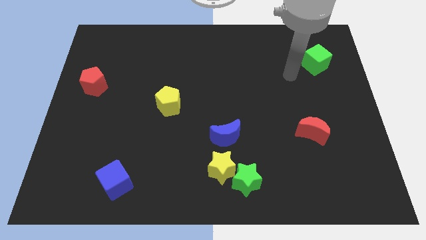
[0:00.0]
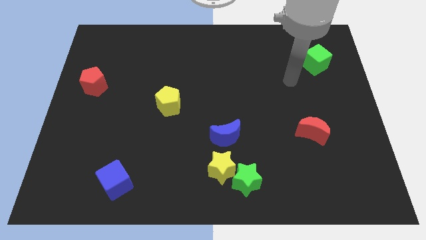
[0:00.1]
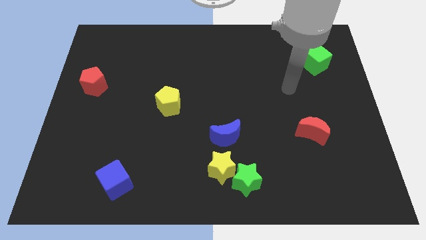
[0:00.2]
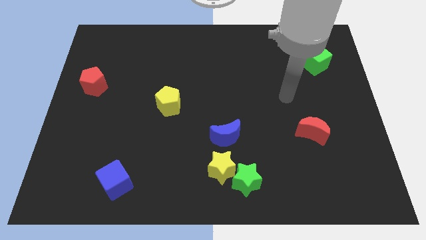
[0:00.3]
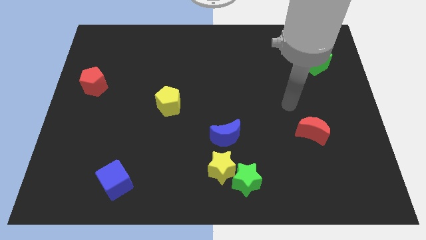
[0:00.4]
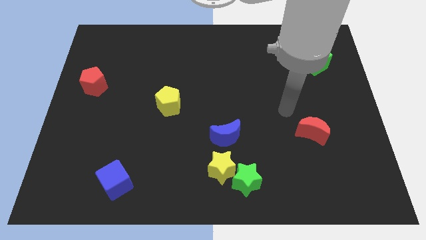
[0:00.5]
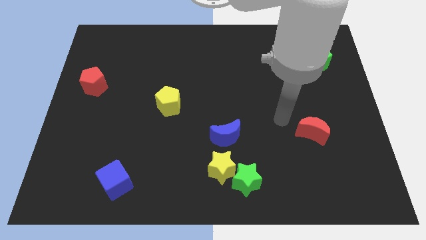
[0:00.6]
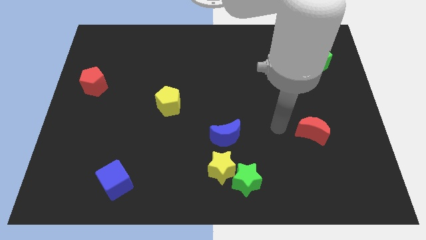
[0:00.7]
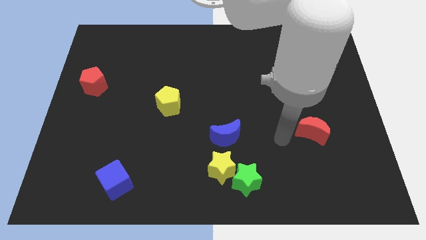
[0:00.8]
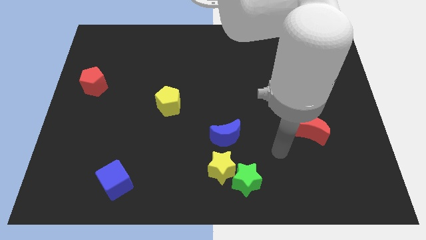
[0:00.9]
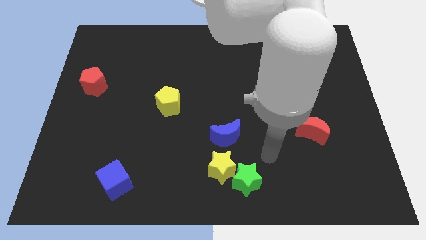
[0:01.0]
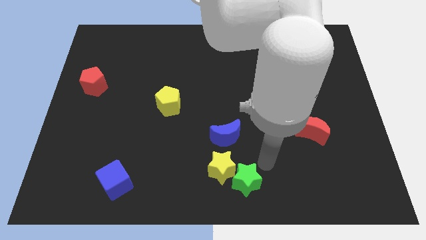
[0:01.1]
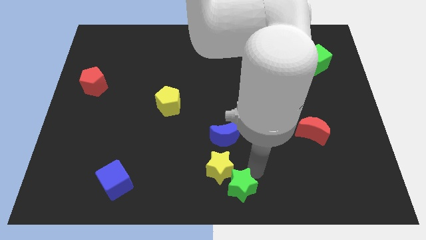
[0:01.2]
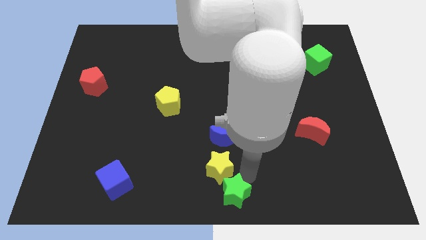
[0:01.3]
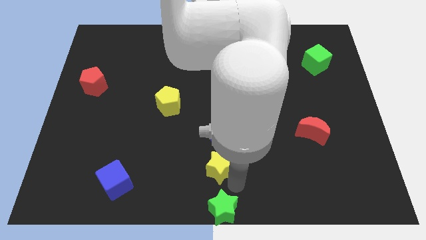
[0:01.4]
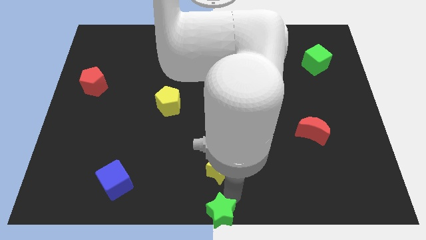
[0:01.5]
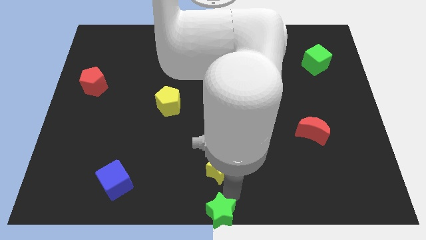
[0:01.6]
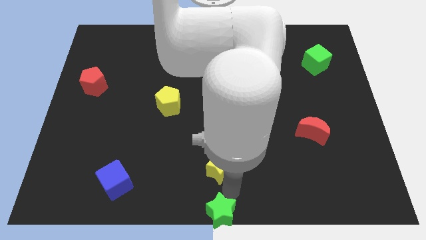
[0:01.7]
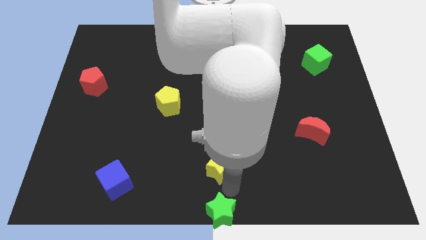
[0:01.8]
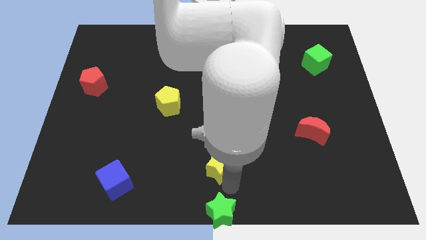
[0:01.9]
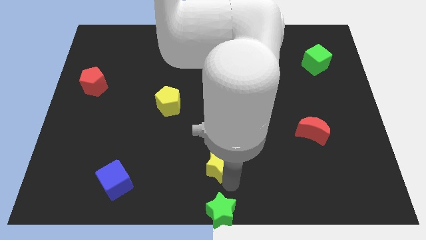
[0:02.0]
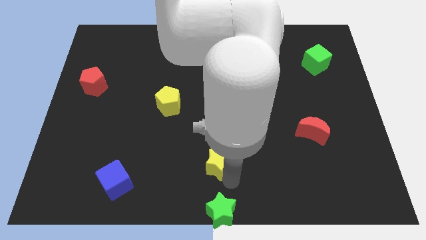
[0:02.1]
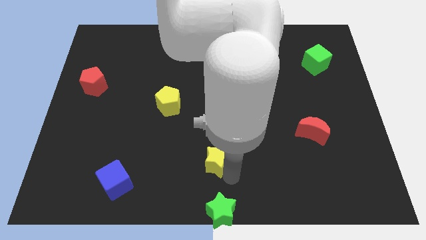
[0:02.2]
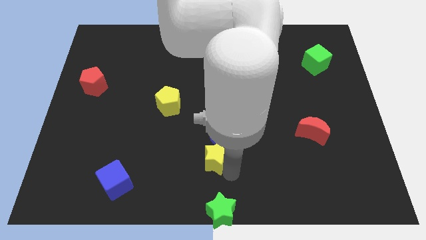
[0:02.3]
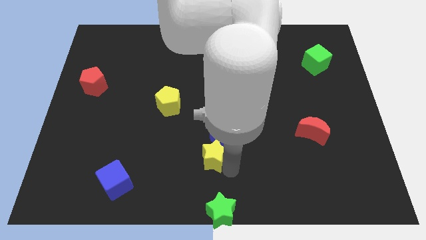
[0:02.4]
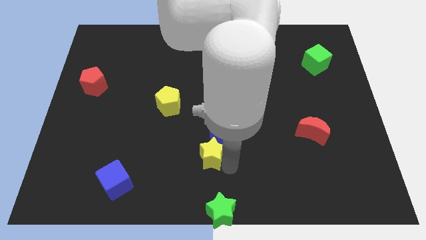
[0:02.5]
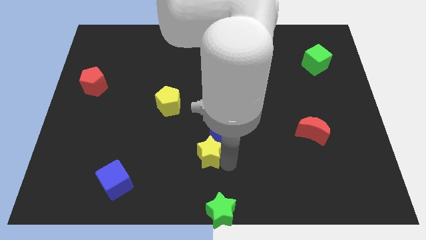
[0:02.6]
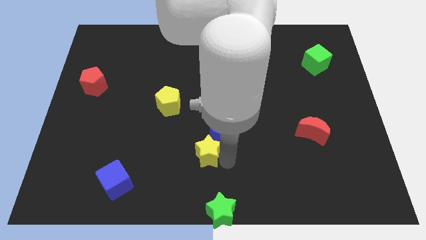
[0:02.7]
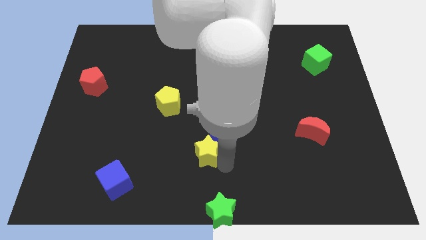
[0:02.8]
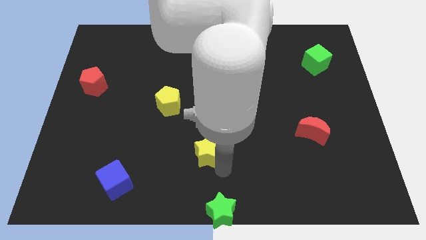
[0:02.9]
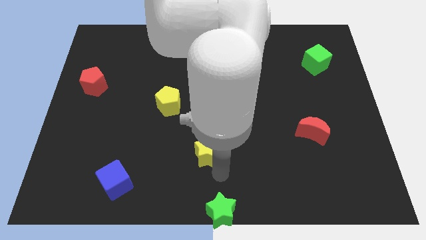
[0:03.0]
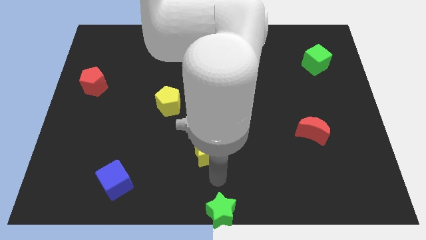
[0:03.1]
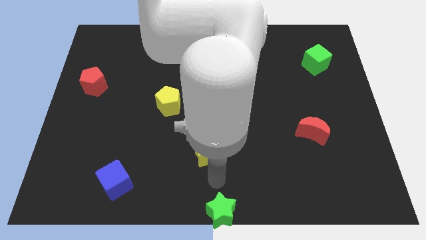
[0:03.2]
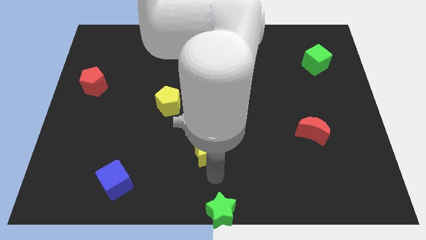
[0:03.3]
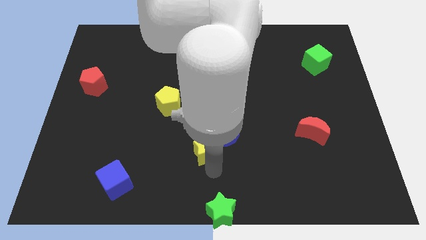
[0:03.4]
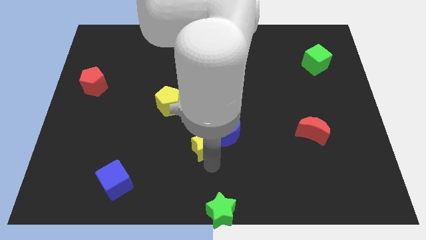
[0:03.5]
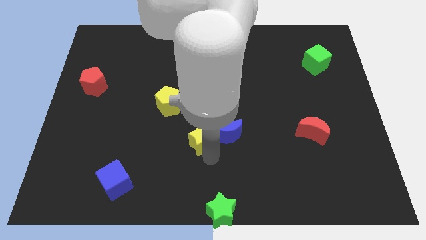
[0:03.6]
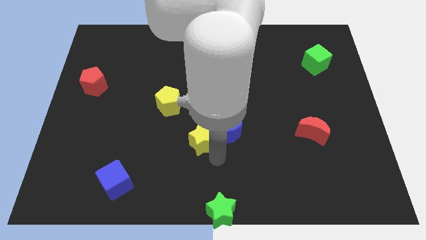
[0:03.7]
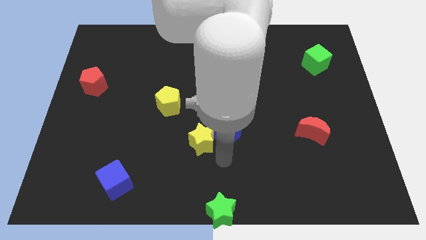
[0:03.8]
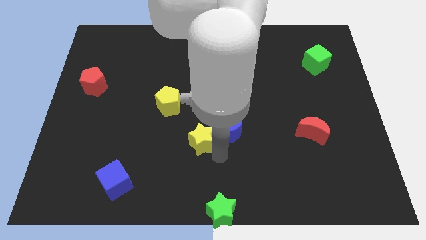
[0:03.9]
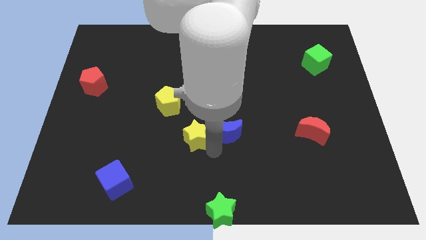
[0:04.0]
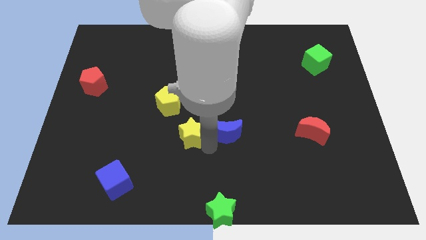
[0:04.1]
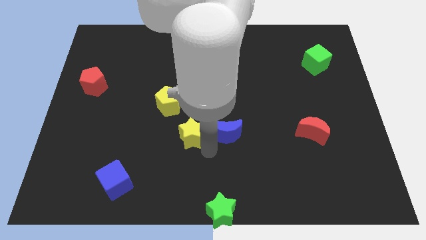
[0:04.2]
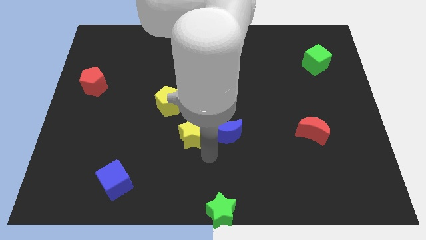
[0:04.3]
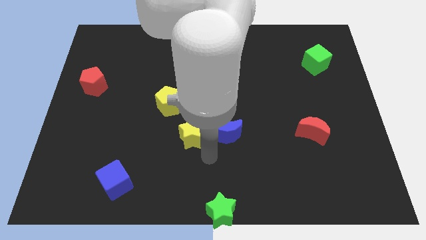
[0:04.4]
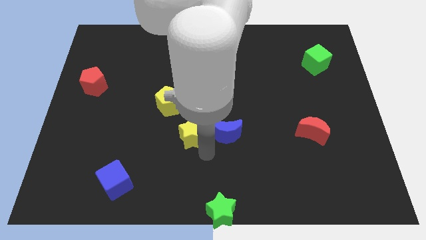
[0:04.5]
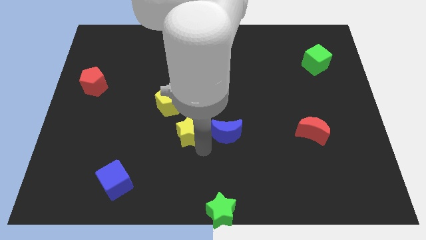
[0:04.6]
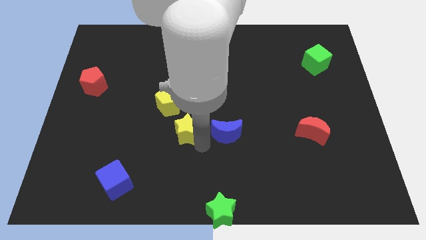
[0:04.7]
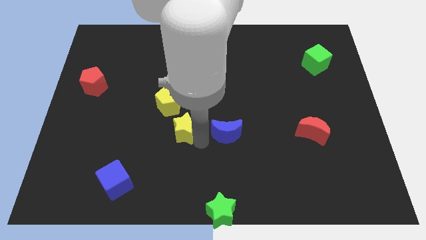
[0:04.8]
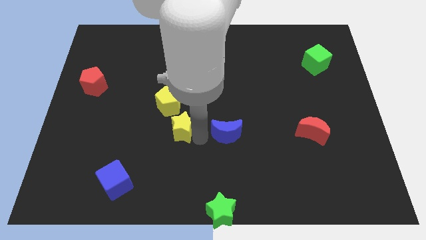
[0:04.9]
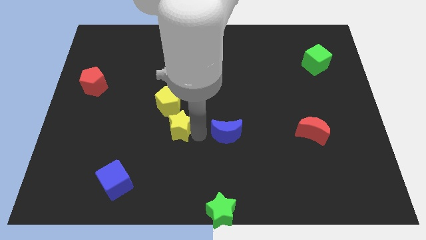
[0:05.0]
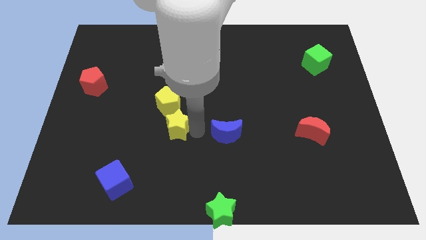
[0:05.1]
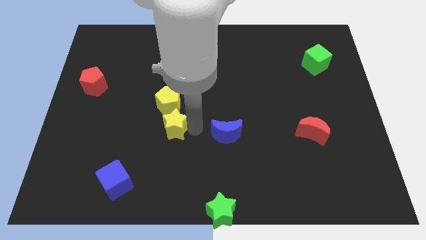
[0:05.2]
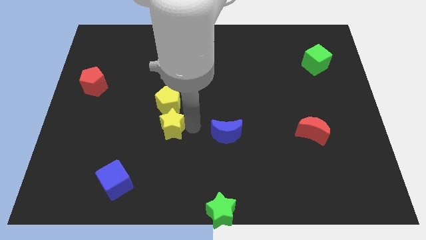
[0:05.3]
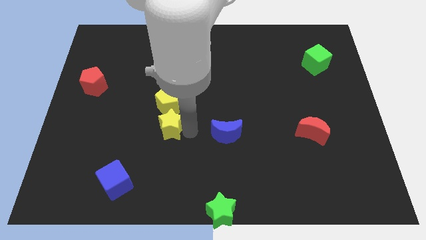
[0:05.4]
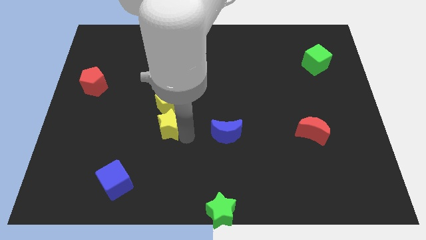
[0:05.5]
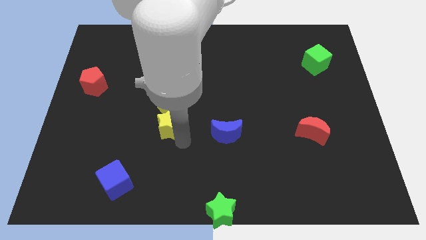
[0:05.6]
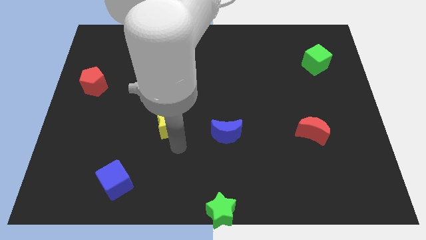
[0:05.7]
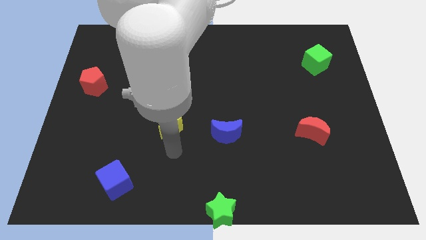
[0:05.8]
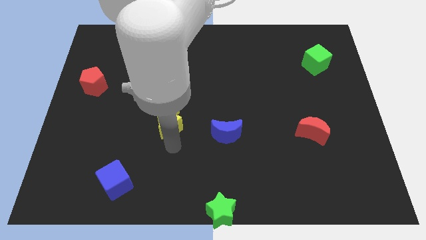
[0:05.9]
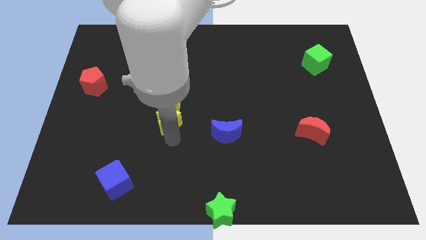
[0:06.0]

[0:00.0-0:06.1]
put the yellow star towards the yellow pentagon

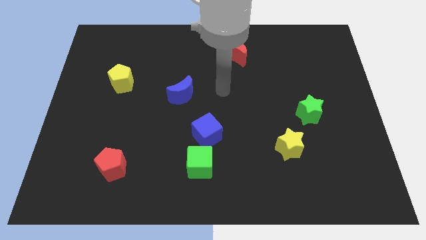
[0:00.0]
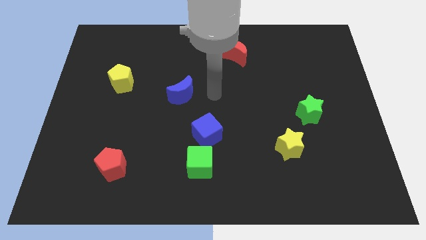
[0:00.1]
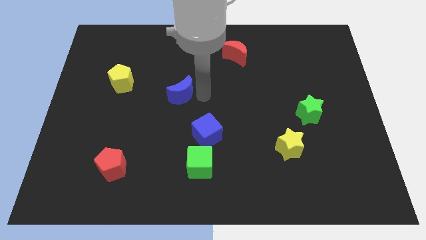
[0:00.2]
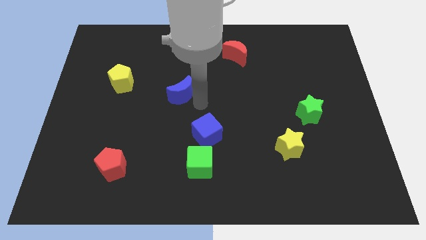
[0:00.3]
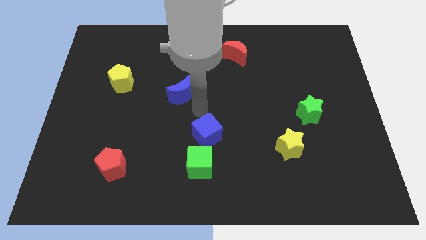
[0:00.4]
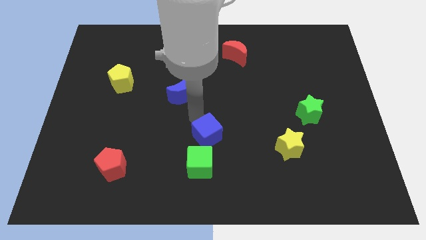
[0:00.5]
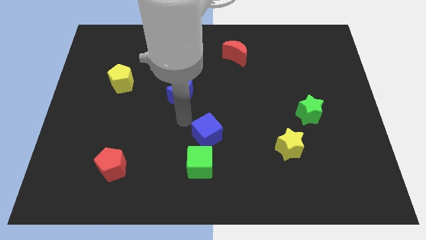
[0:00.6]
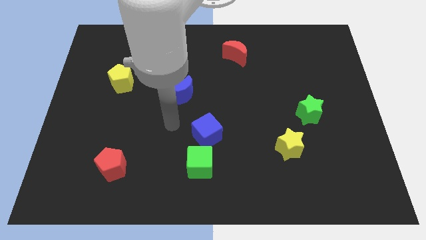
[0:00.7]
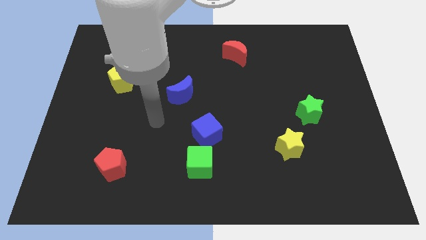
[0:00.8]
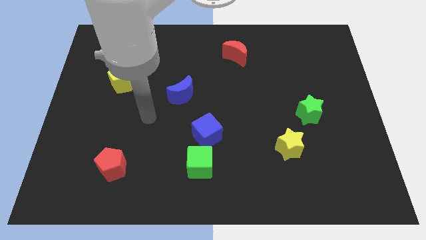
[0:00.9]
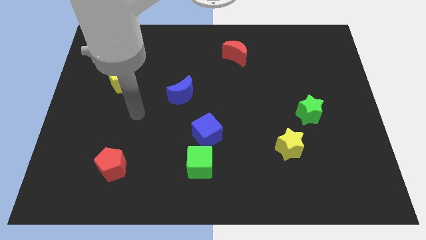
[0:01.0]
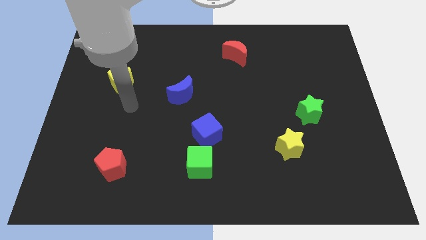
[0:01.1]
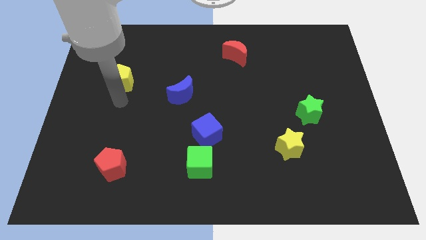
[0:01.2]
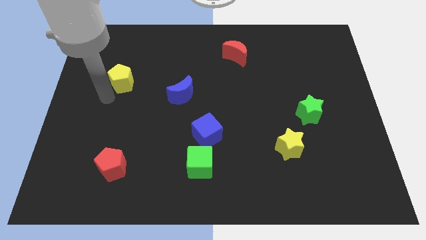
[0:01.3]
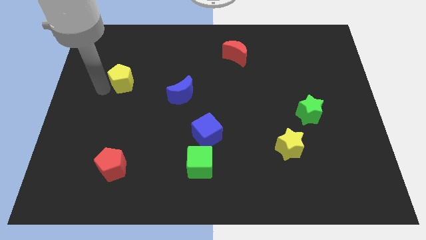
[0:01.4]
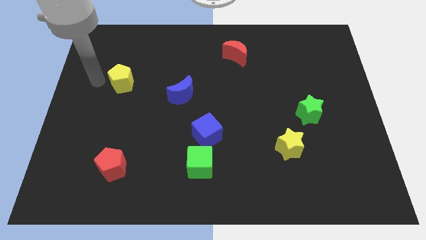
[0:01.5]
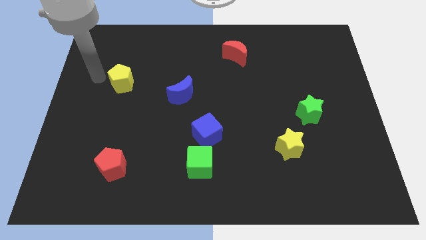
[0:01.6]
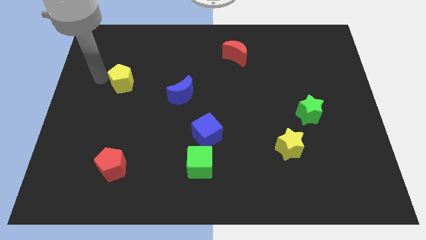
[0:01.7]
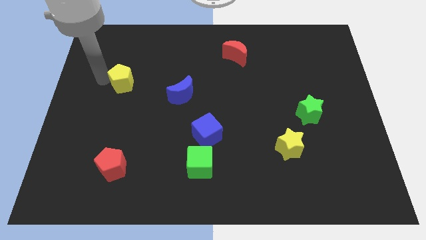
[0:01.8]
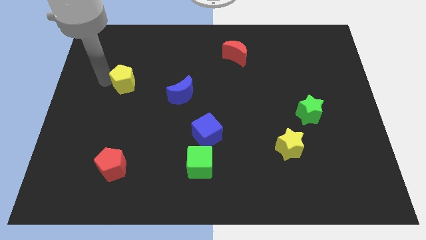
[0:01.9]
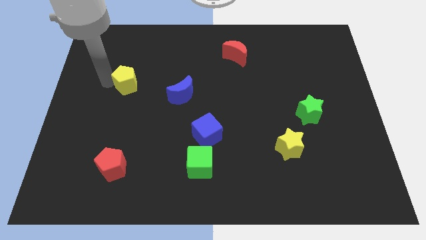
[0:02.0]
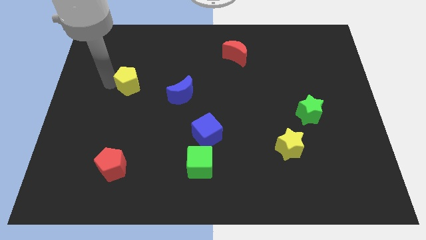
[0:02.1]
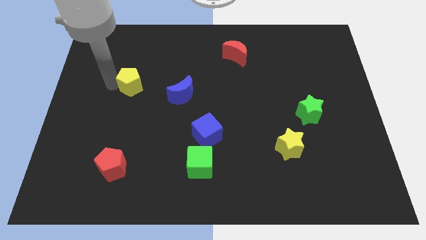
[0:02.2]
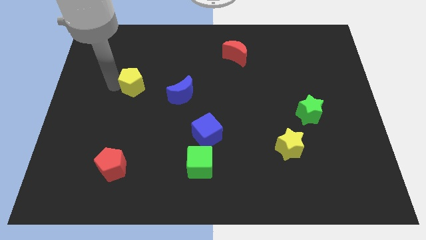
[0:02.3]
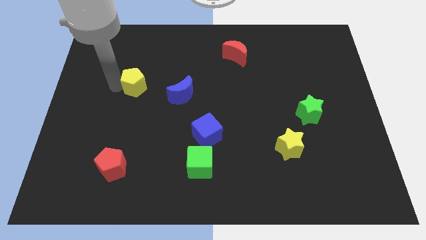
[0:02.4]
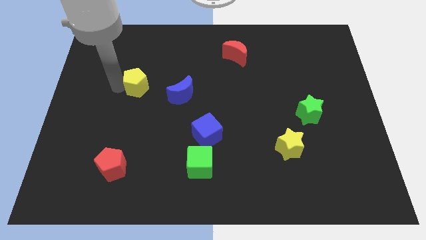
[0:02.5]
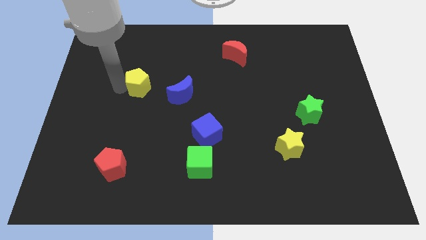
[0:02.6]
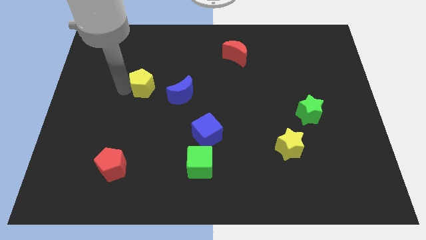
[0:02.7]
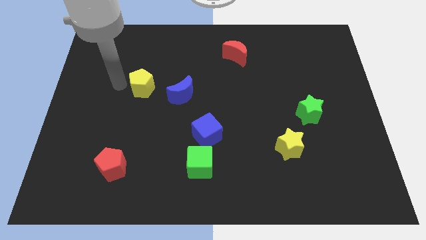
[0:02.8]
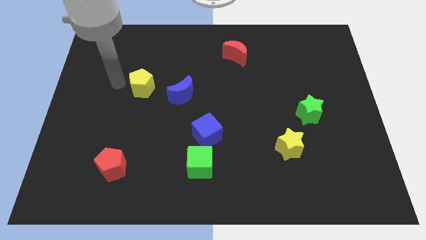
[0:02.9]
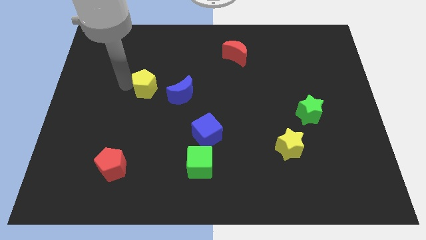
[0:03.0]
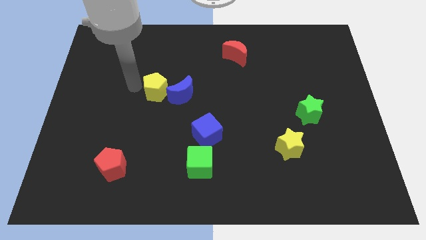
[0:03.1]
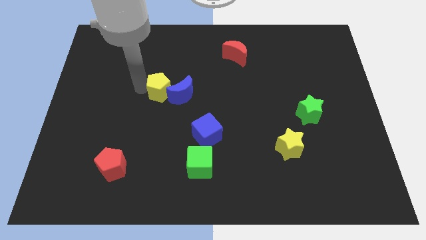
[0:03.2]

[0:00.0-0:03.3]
move the yellow pentagon close to the blue moon
